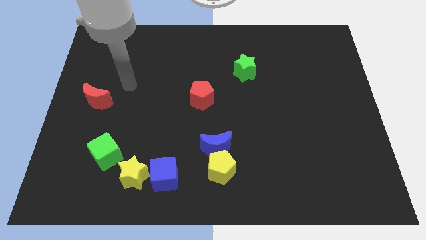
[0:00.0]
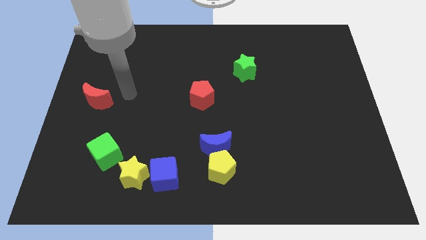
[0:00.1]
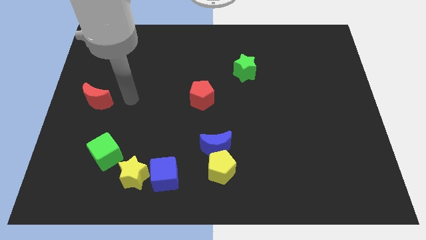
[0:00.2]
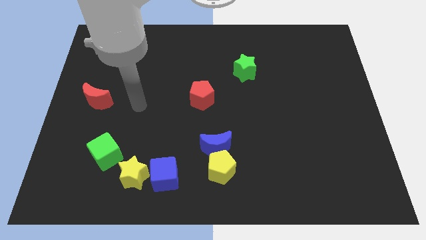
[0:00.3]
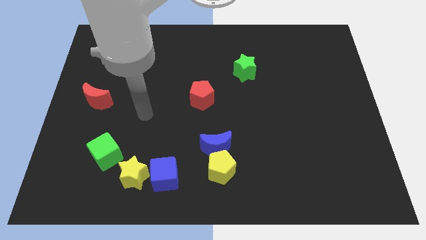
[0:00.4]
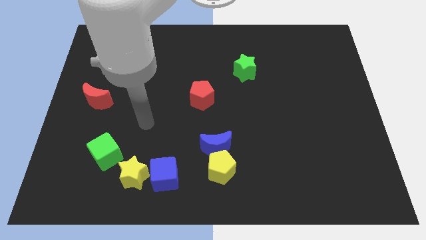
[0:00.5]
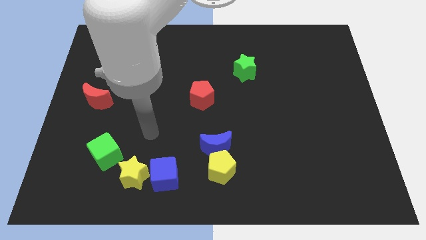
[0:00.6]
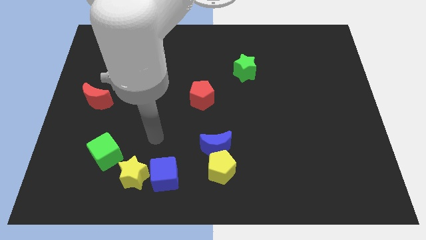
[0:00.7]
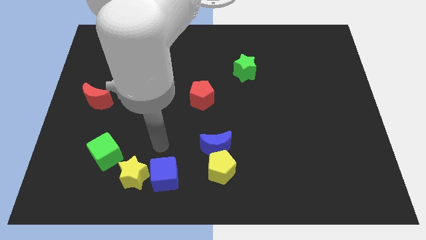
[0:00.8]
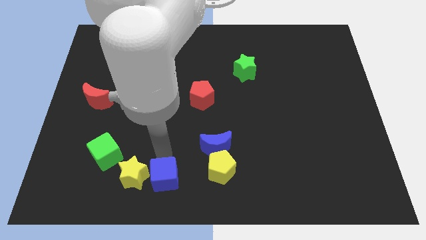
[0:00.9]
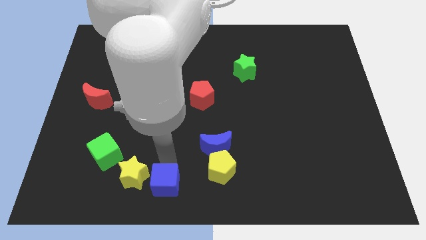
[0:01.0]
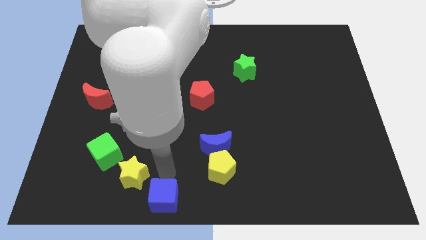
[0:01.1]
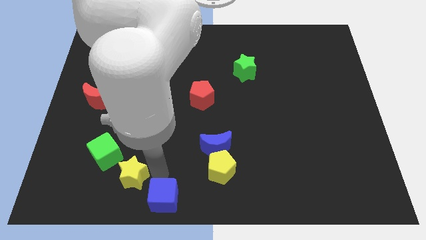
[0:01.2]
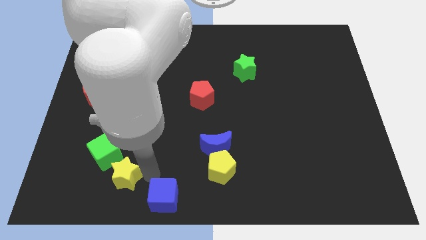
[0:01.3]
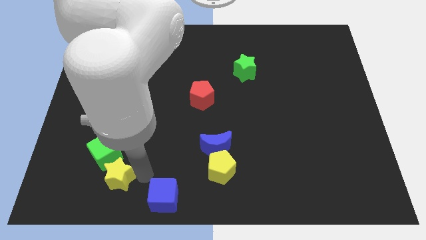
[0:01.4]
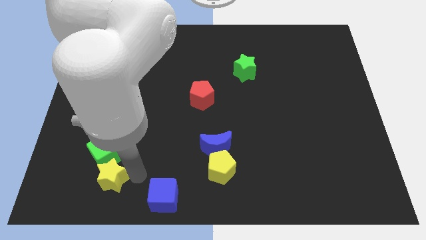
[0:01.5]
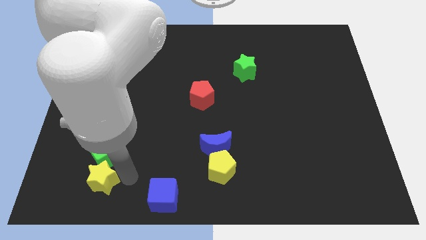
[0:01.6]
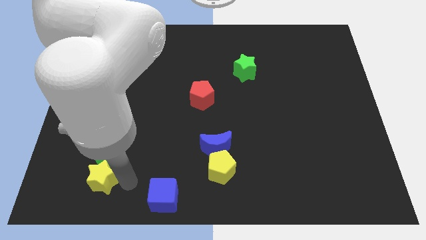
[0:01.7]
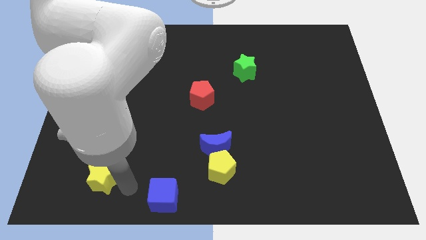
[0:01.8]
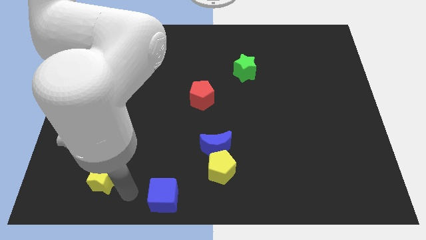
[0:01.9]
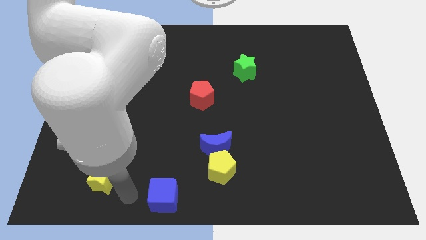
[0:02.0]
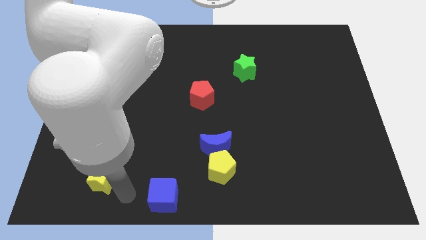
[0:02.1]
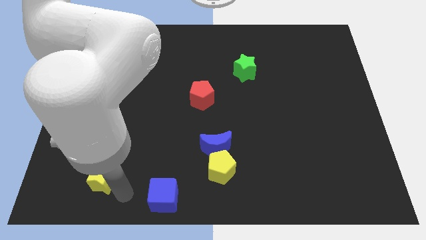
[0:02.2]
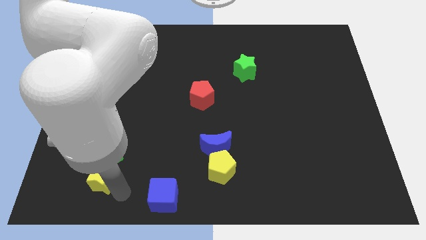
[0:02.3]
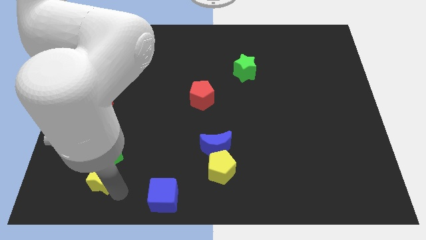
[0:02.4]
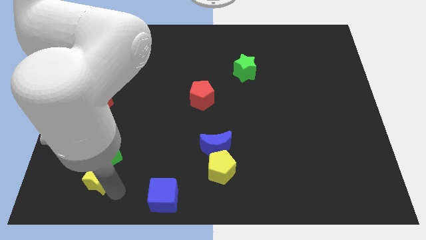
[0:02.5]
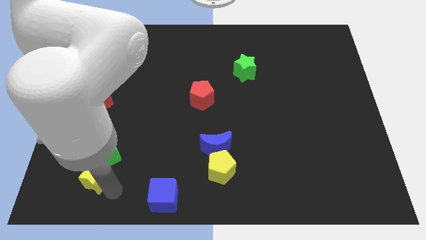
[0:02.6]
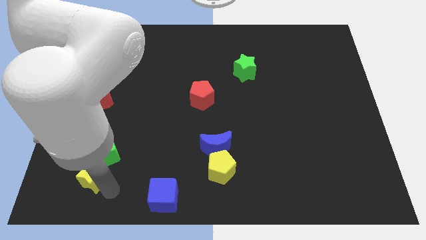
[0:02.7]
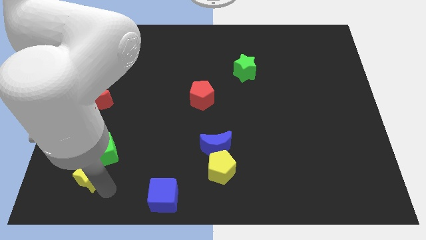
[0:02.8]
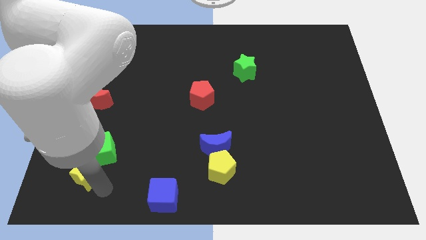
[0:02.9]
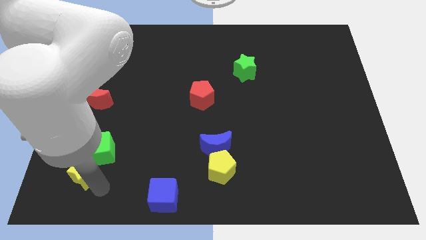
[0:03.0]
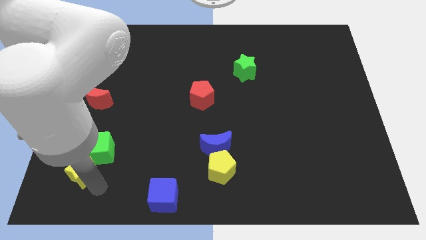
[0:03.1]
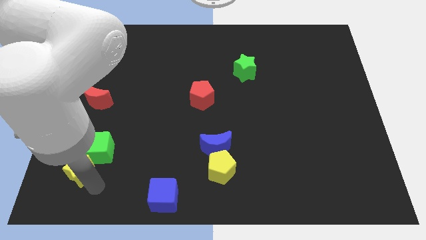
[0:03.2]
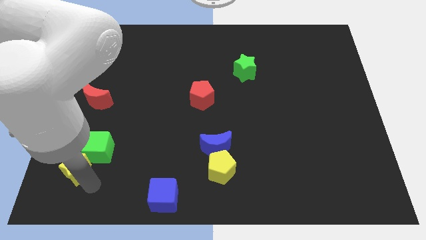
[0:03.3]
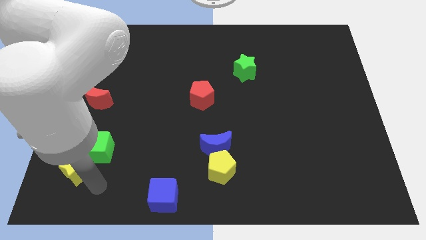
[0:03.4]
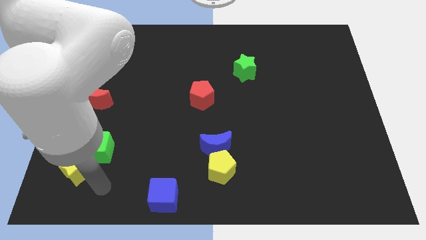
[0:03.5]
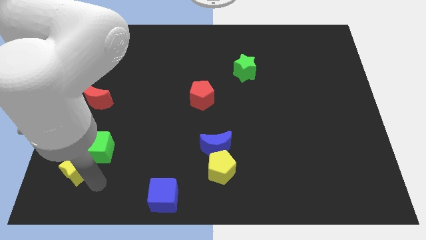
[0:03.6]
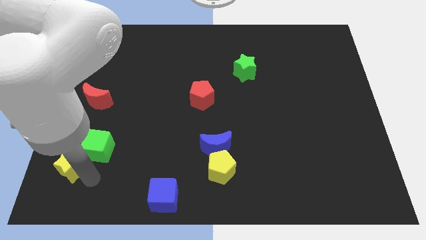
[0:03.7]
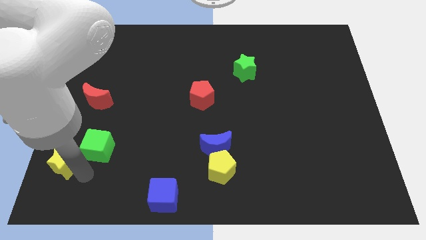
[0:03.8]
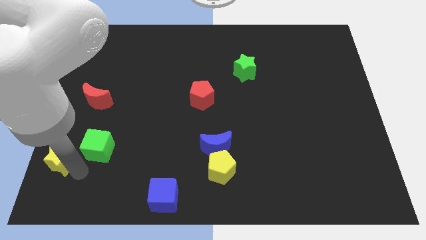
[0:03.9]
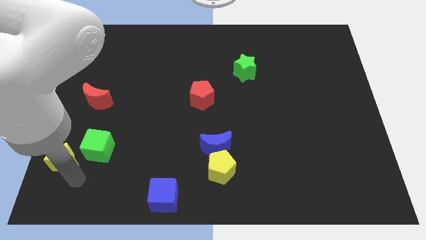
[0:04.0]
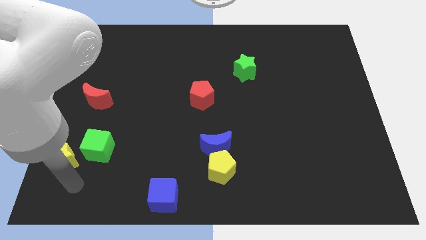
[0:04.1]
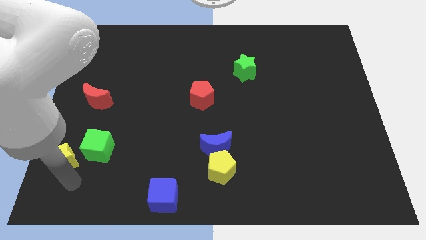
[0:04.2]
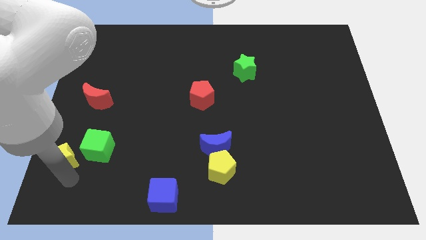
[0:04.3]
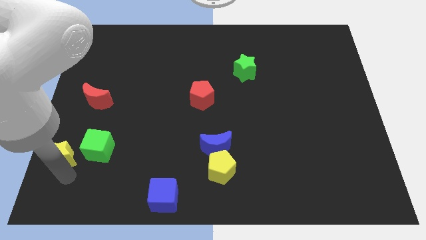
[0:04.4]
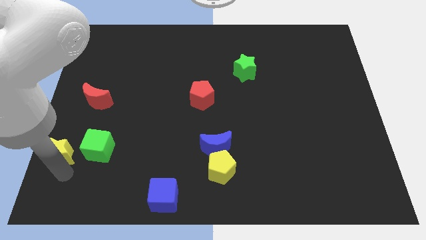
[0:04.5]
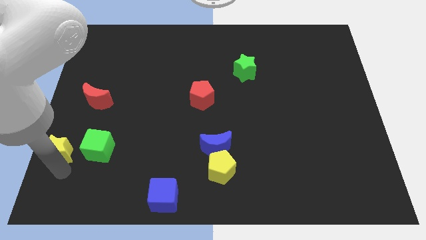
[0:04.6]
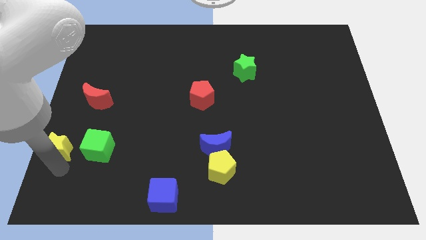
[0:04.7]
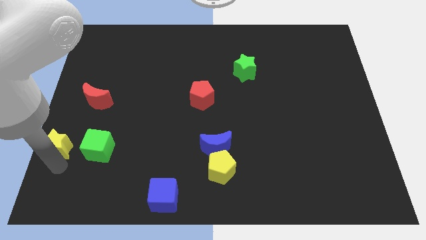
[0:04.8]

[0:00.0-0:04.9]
move the yellow star to the left side of the board

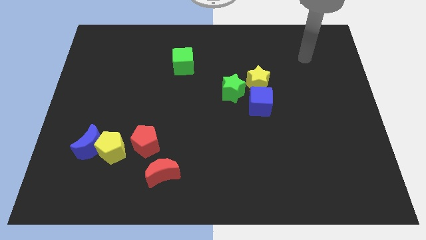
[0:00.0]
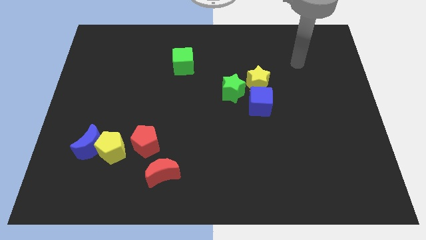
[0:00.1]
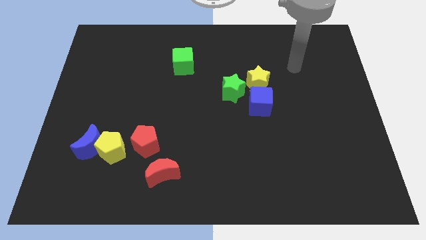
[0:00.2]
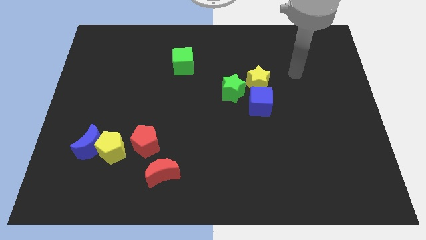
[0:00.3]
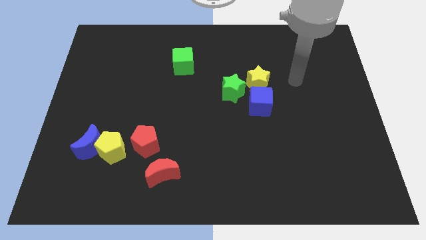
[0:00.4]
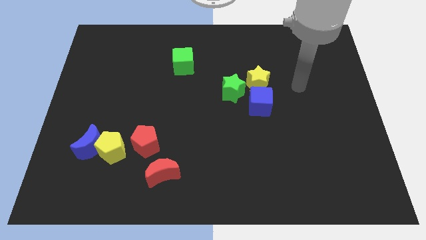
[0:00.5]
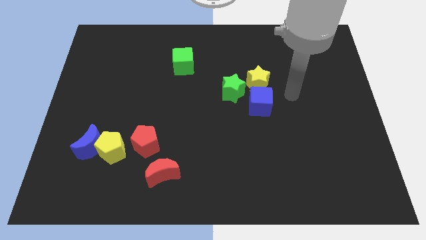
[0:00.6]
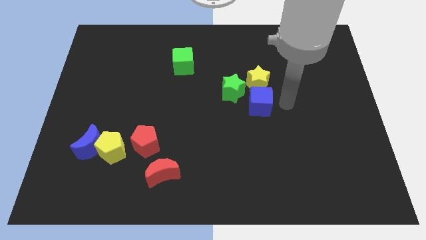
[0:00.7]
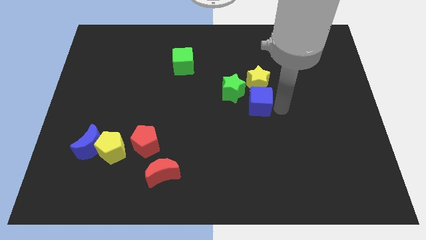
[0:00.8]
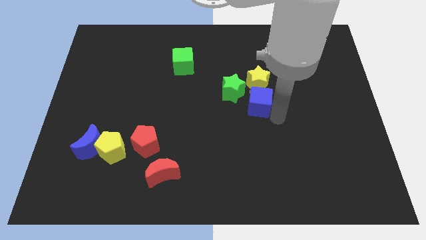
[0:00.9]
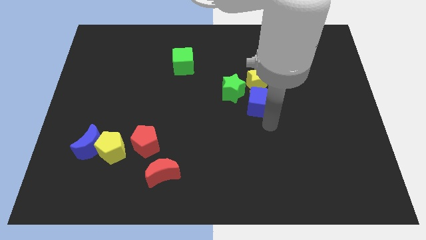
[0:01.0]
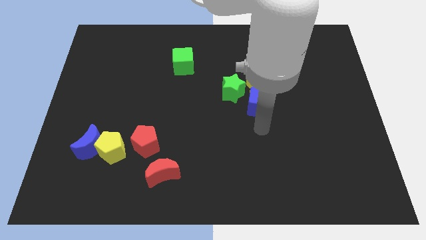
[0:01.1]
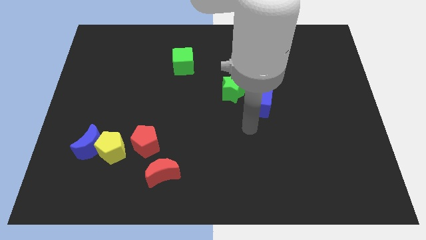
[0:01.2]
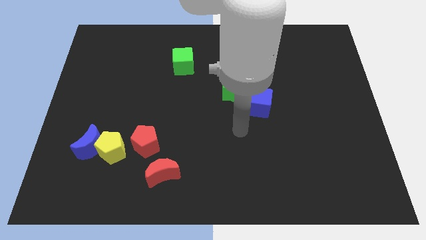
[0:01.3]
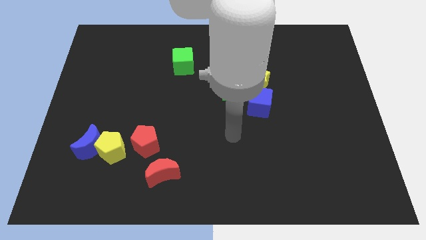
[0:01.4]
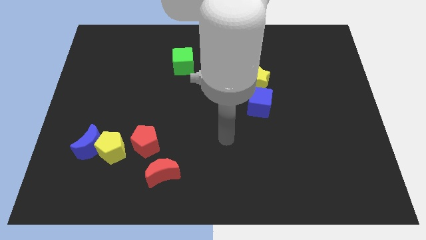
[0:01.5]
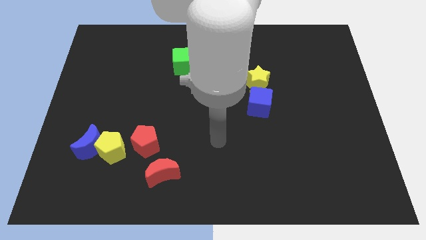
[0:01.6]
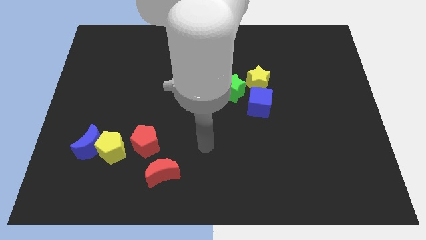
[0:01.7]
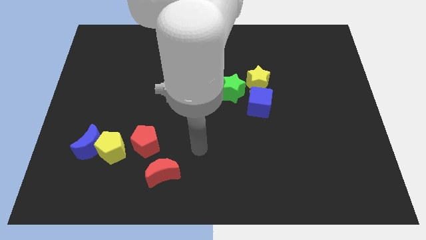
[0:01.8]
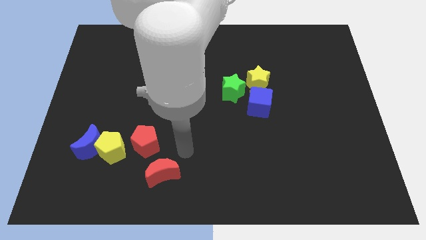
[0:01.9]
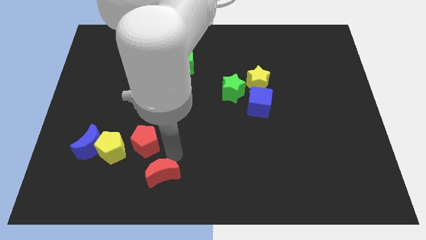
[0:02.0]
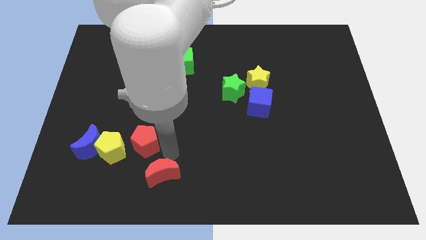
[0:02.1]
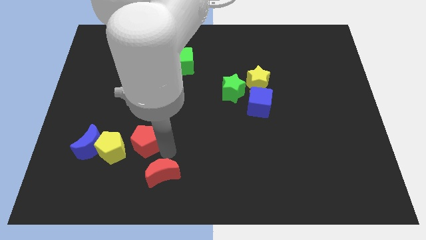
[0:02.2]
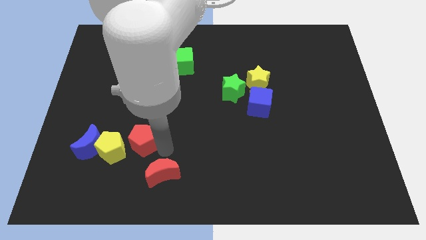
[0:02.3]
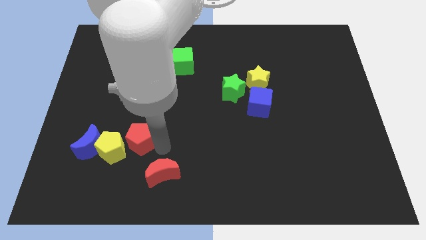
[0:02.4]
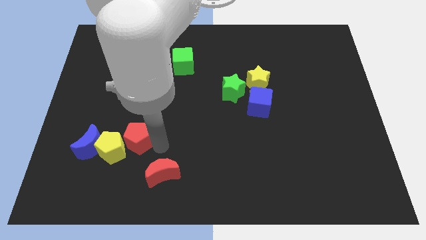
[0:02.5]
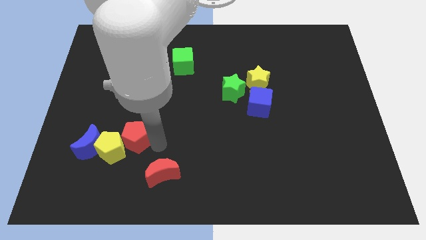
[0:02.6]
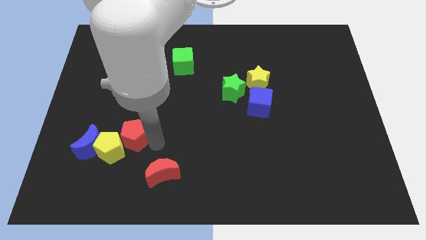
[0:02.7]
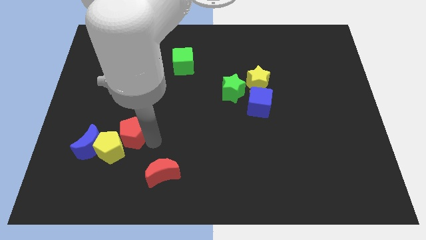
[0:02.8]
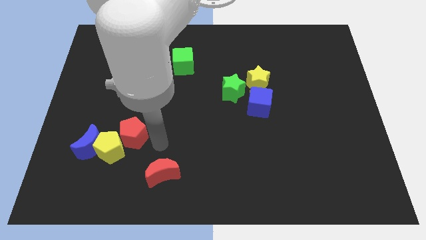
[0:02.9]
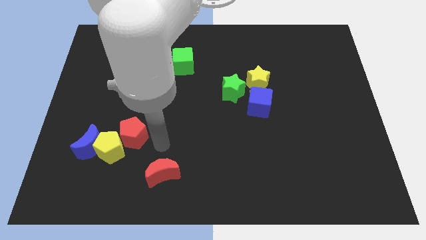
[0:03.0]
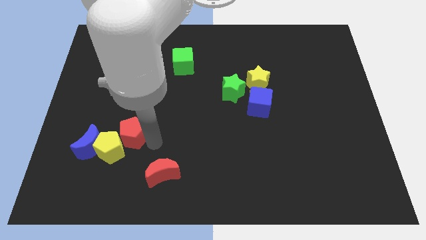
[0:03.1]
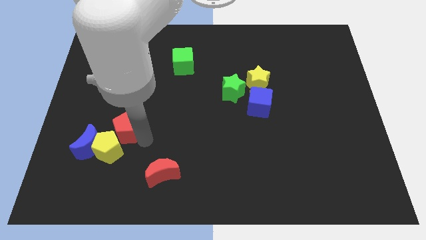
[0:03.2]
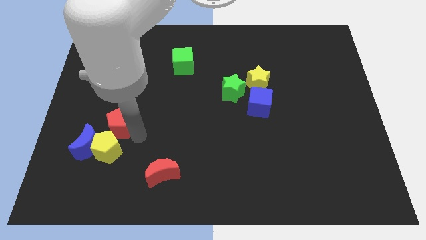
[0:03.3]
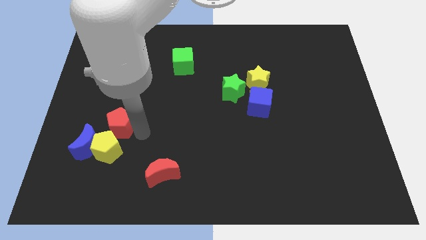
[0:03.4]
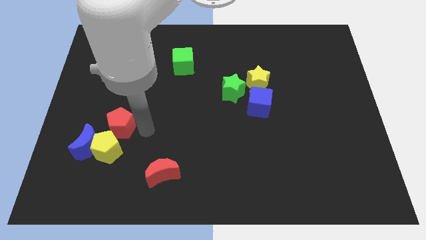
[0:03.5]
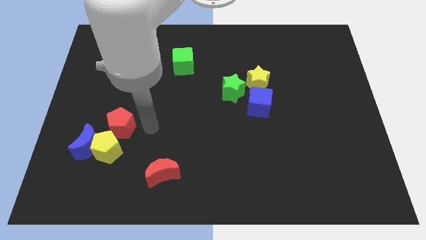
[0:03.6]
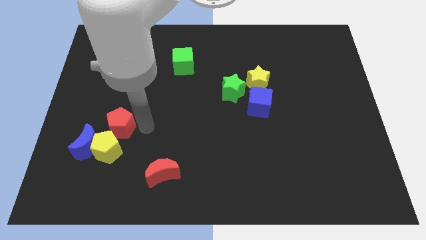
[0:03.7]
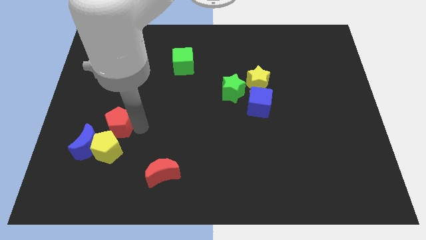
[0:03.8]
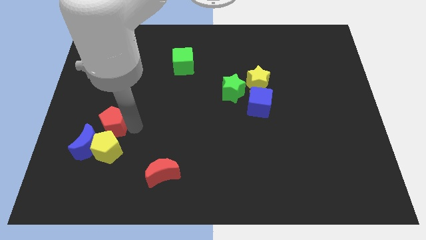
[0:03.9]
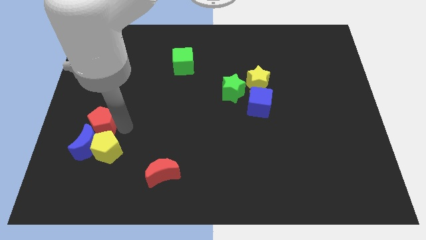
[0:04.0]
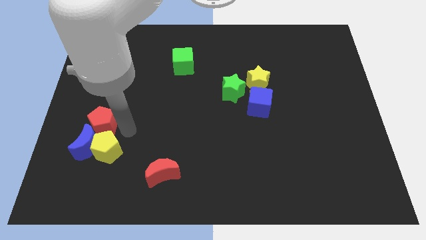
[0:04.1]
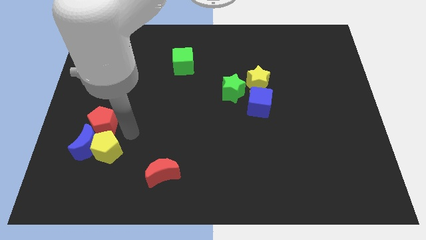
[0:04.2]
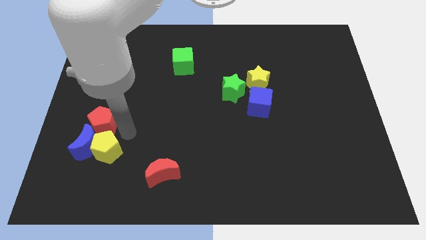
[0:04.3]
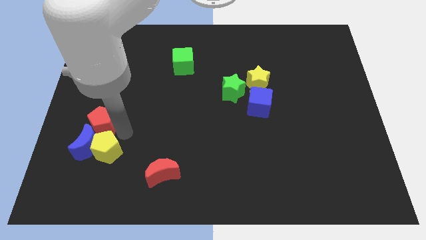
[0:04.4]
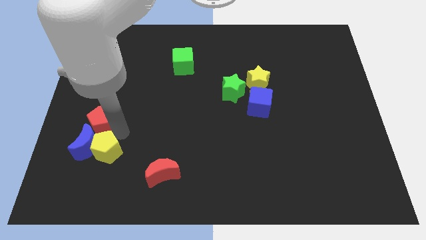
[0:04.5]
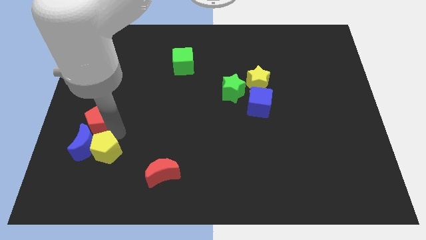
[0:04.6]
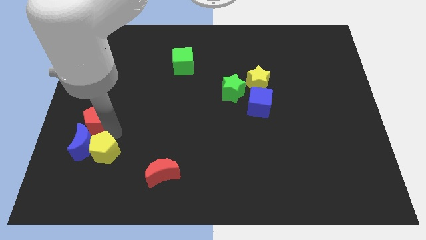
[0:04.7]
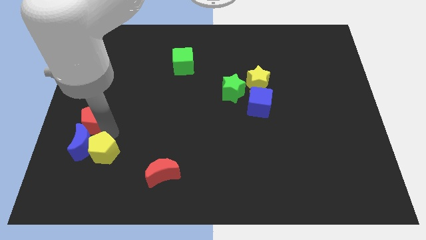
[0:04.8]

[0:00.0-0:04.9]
push the red pentagon to the center left
